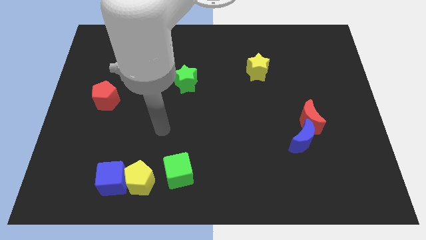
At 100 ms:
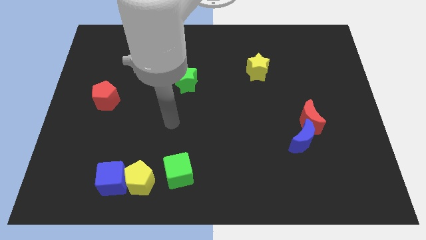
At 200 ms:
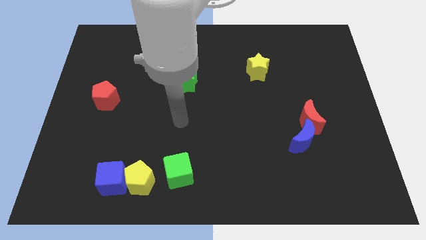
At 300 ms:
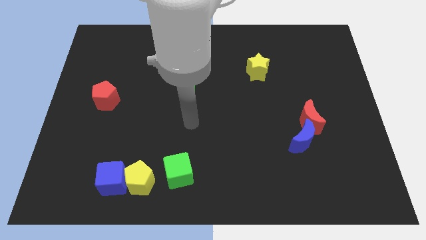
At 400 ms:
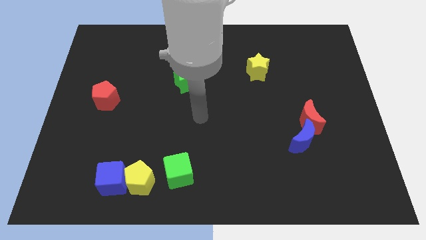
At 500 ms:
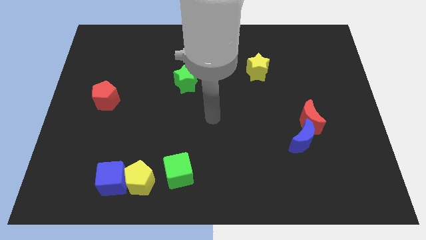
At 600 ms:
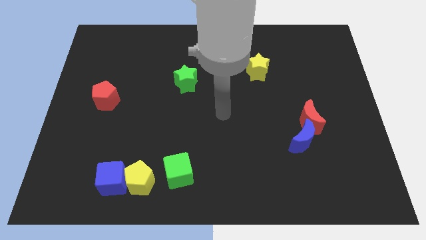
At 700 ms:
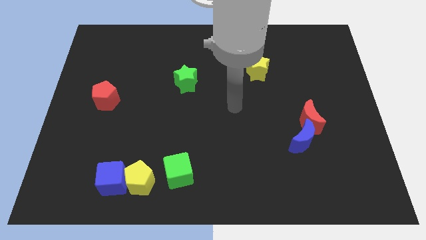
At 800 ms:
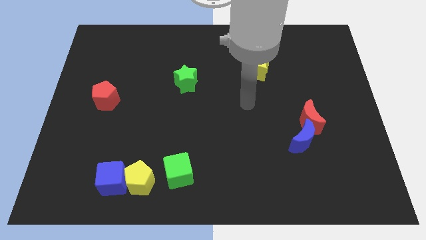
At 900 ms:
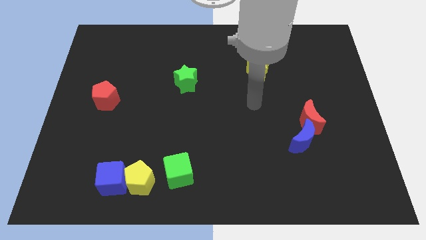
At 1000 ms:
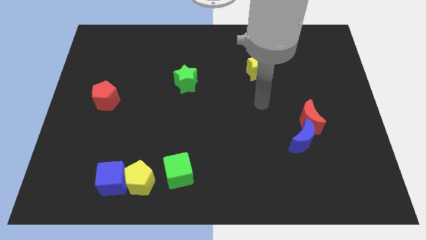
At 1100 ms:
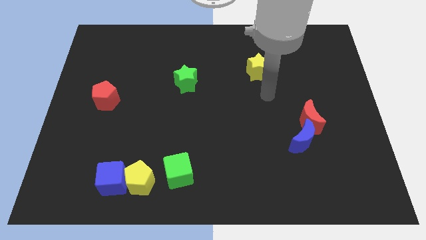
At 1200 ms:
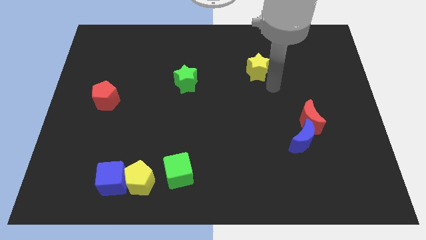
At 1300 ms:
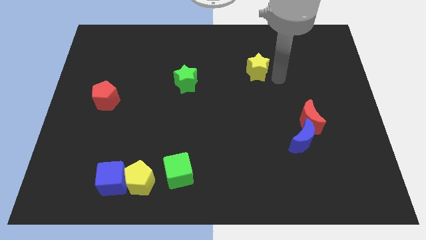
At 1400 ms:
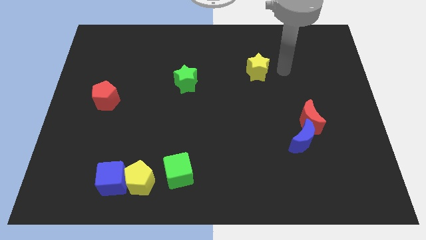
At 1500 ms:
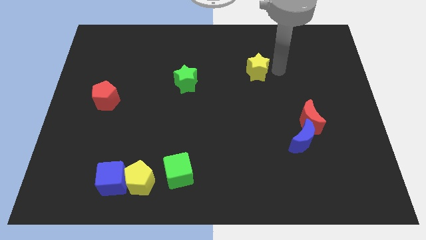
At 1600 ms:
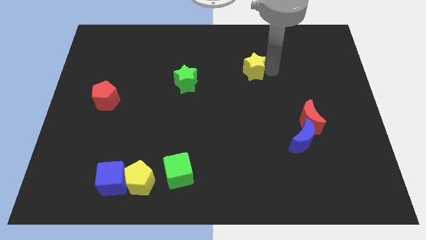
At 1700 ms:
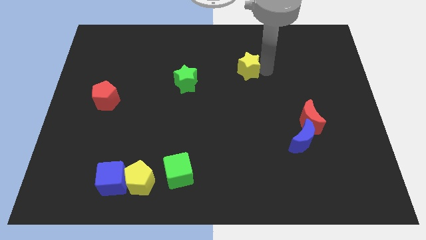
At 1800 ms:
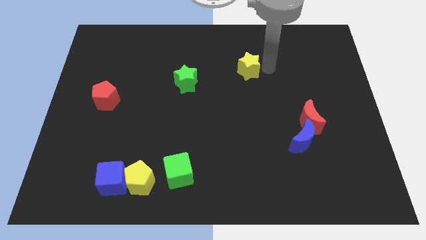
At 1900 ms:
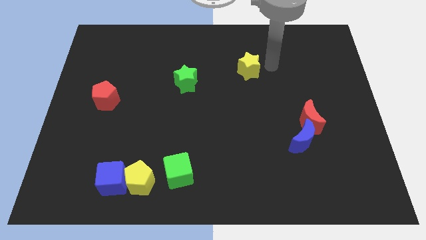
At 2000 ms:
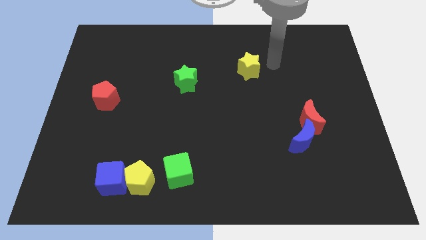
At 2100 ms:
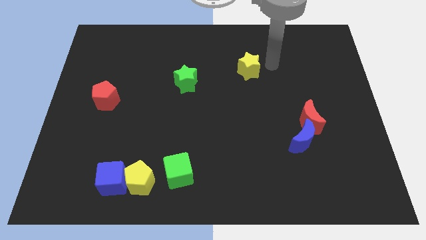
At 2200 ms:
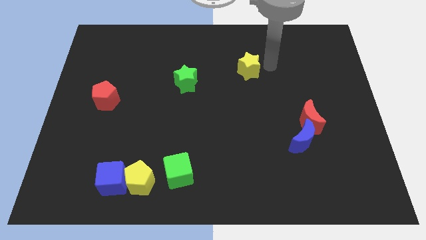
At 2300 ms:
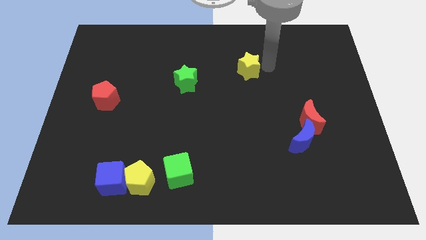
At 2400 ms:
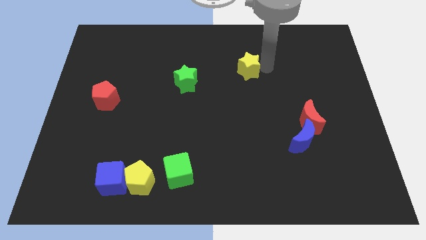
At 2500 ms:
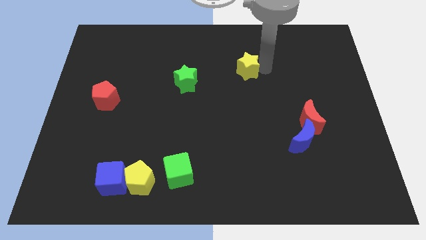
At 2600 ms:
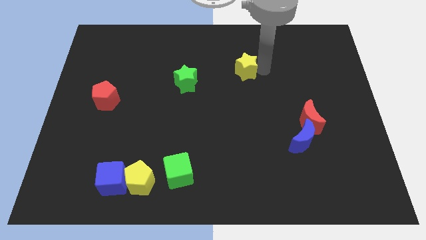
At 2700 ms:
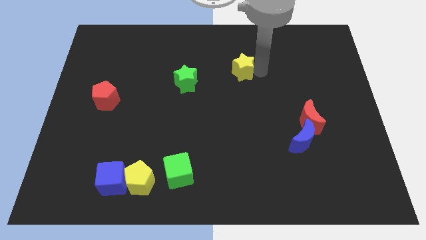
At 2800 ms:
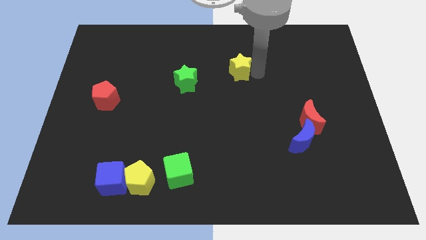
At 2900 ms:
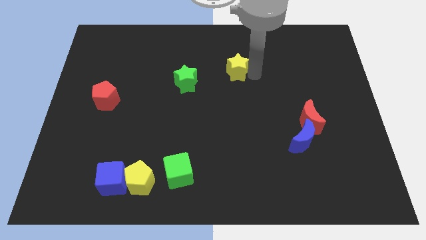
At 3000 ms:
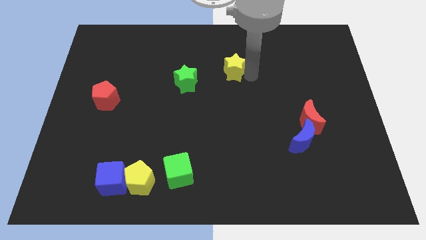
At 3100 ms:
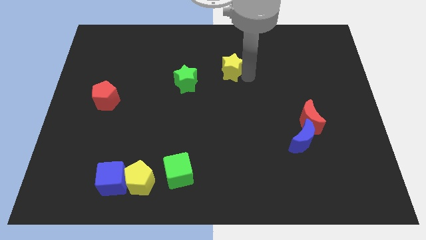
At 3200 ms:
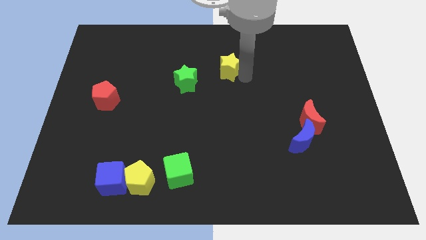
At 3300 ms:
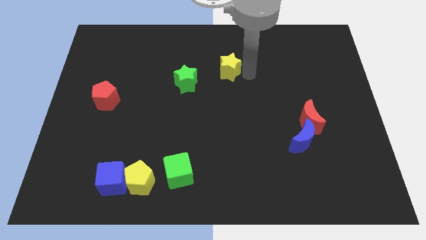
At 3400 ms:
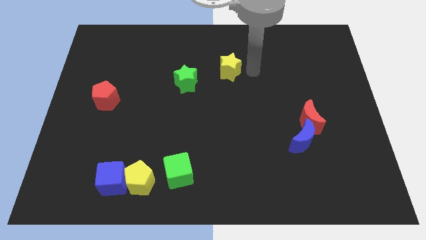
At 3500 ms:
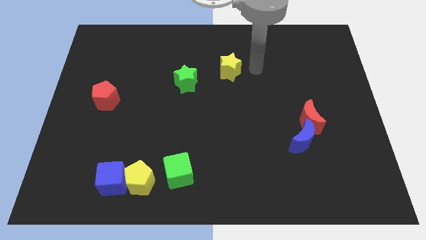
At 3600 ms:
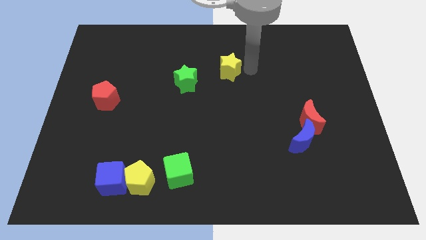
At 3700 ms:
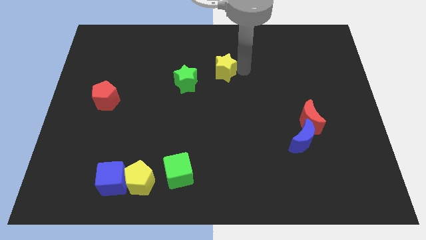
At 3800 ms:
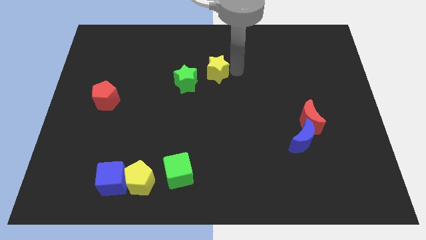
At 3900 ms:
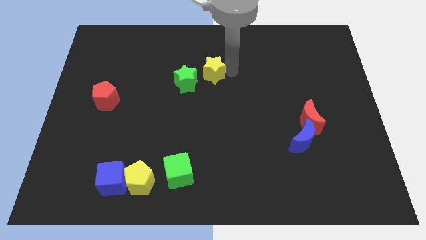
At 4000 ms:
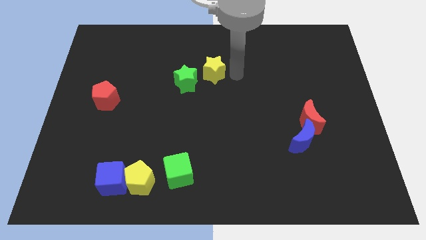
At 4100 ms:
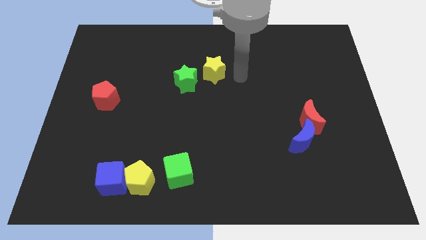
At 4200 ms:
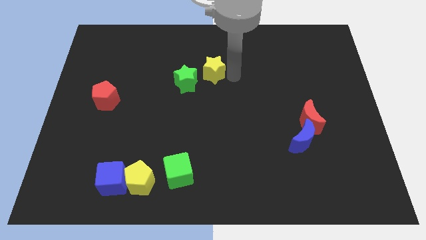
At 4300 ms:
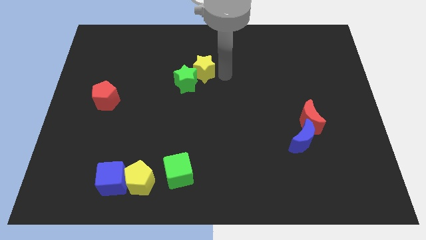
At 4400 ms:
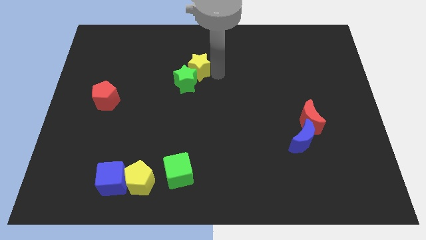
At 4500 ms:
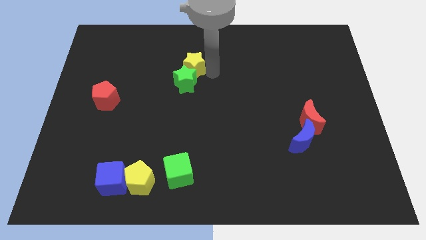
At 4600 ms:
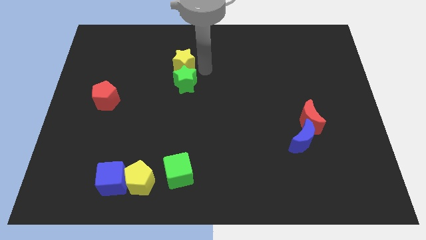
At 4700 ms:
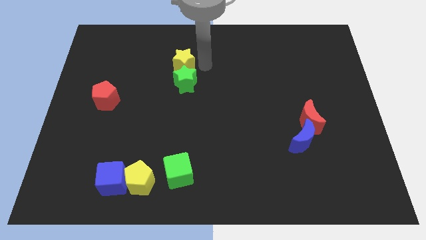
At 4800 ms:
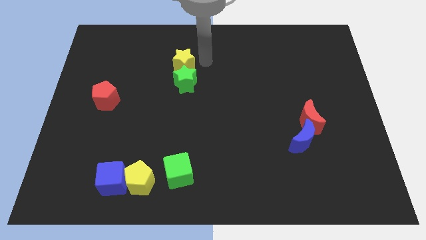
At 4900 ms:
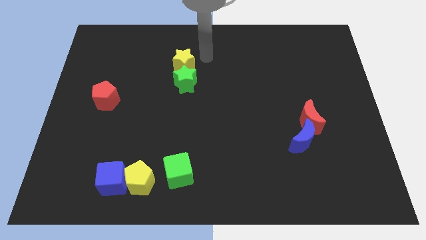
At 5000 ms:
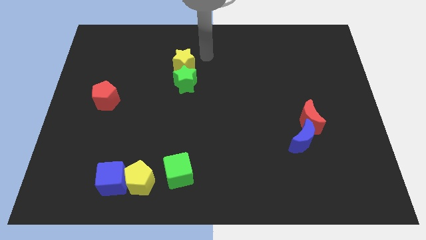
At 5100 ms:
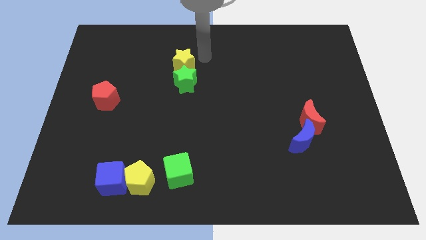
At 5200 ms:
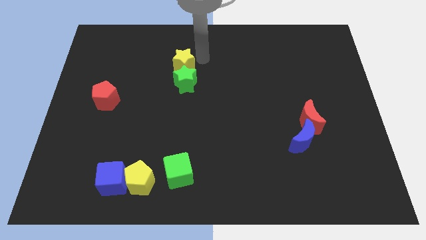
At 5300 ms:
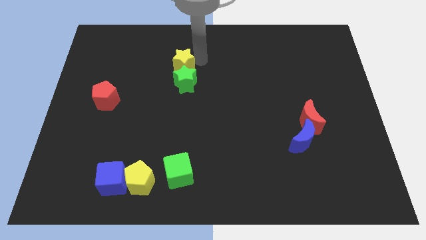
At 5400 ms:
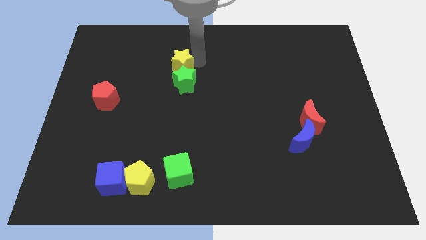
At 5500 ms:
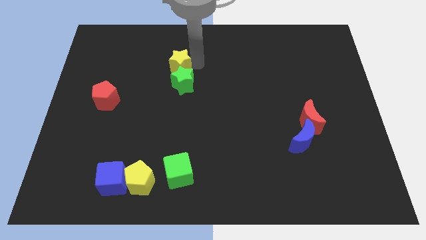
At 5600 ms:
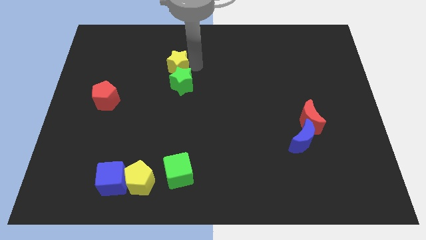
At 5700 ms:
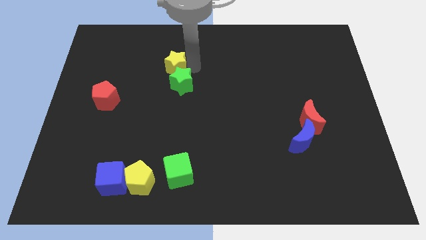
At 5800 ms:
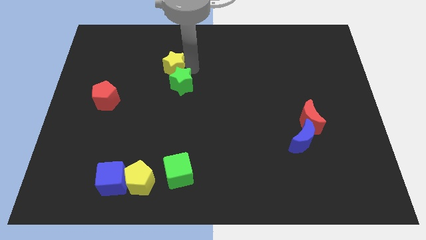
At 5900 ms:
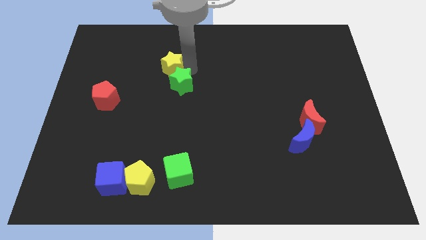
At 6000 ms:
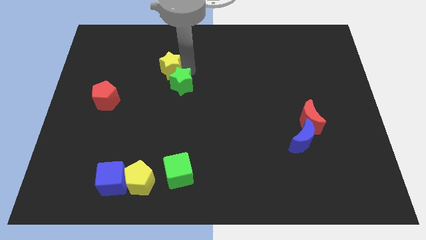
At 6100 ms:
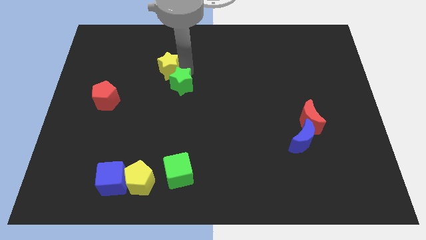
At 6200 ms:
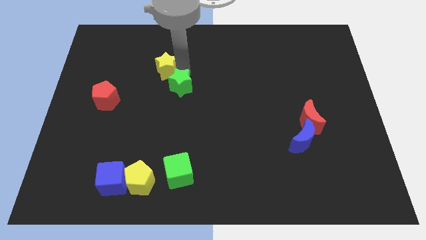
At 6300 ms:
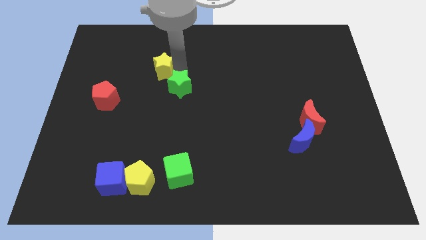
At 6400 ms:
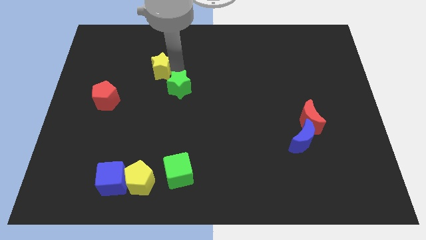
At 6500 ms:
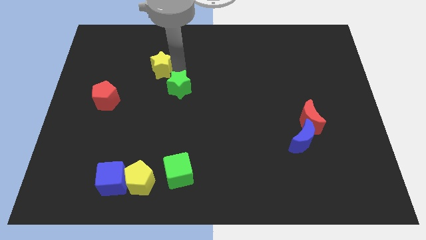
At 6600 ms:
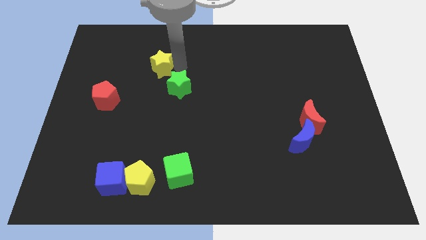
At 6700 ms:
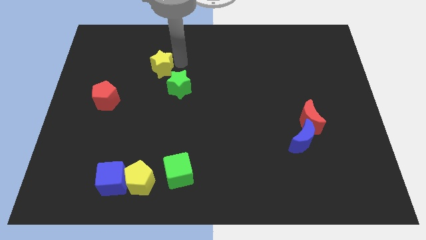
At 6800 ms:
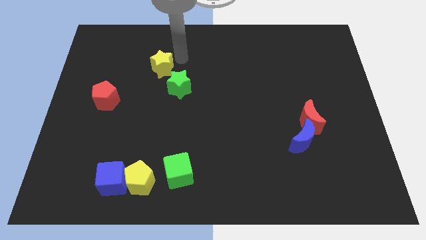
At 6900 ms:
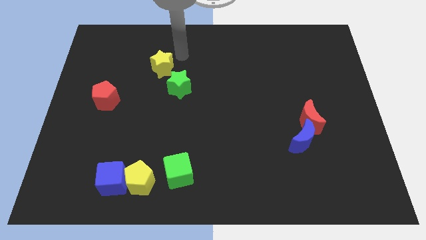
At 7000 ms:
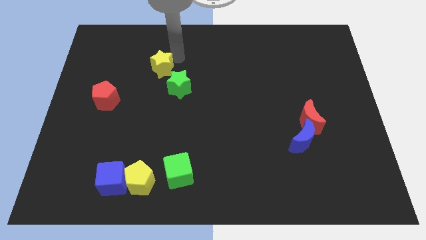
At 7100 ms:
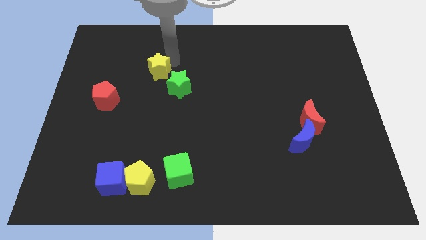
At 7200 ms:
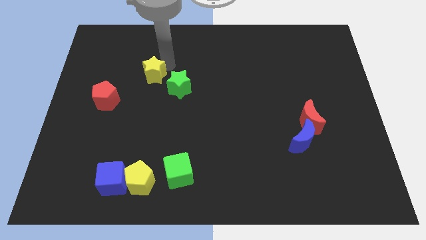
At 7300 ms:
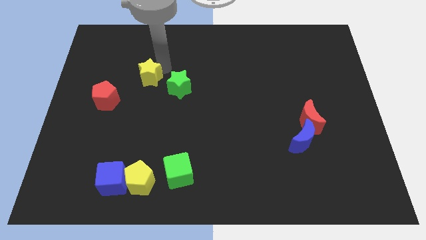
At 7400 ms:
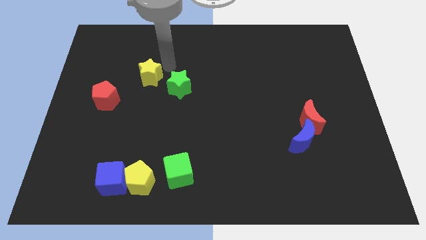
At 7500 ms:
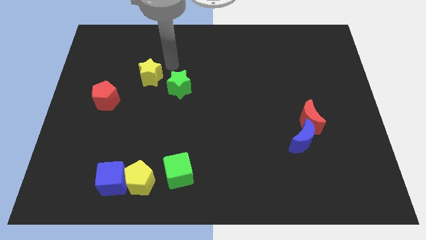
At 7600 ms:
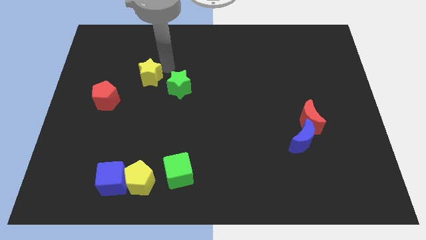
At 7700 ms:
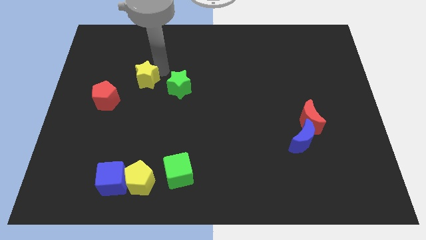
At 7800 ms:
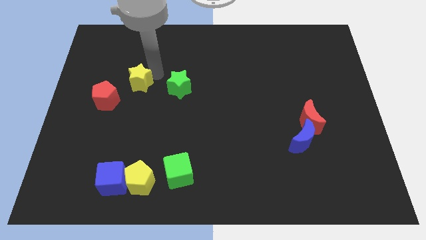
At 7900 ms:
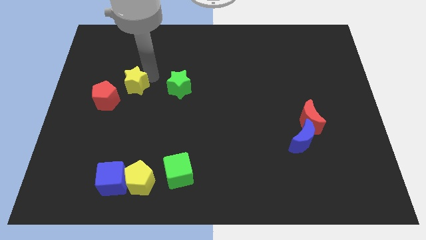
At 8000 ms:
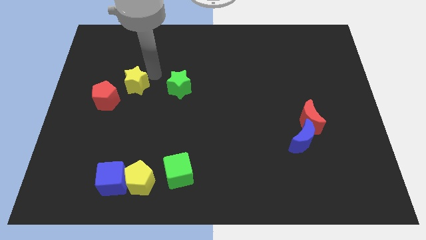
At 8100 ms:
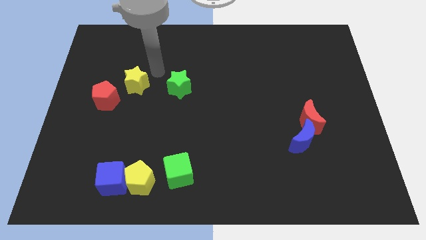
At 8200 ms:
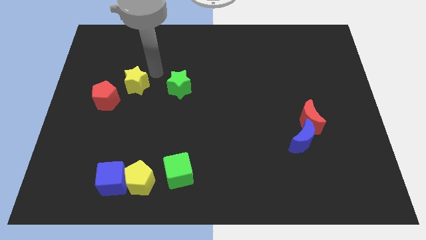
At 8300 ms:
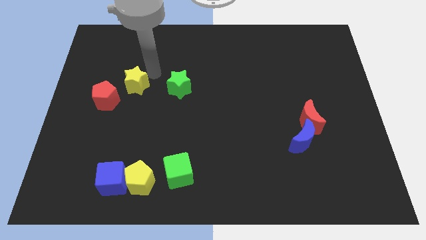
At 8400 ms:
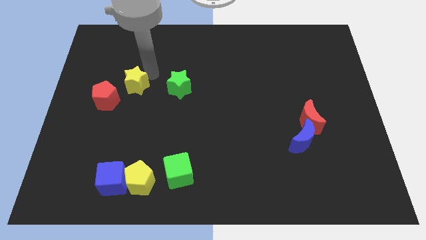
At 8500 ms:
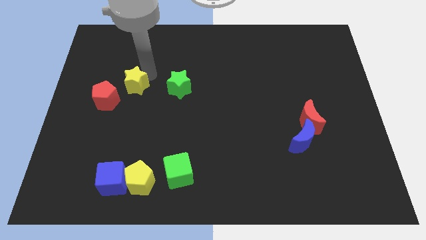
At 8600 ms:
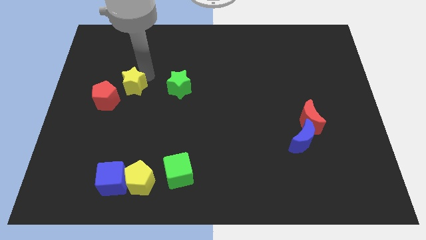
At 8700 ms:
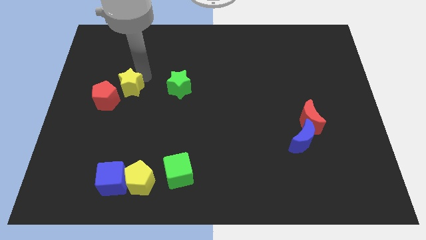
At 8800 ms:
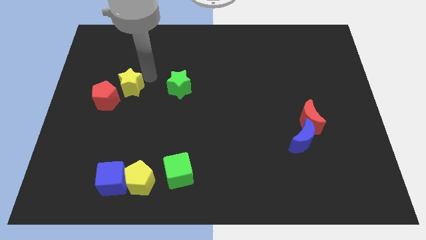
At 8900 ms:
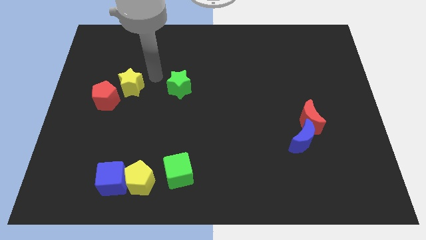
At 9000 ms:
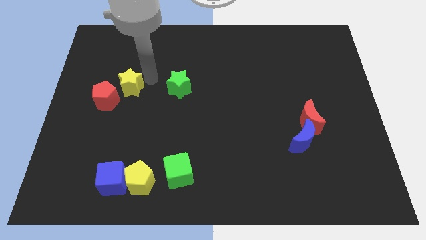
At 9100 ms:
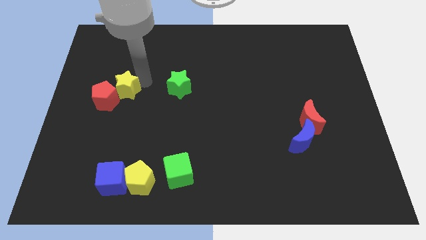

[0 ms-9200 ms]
slide the yellow star towards the red pentagon
